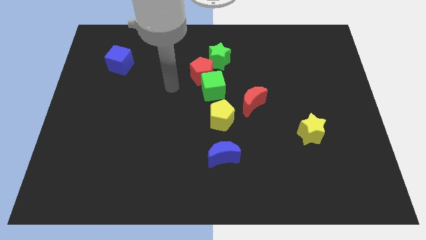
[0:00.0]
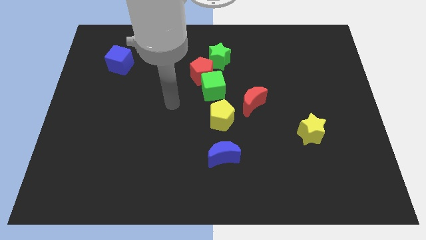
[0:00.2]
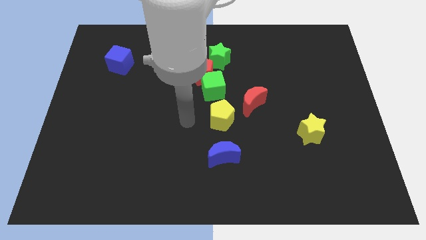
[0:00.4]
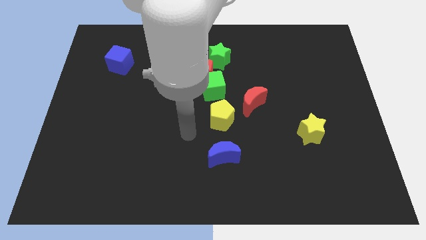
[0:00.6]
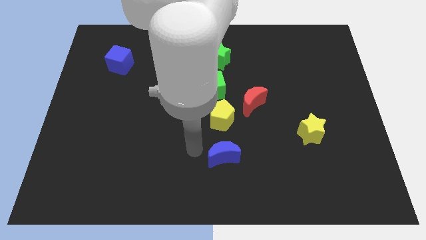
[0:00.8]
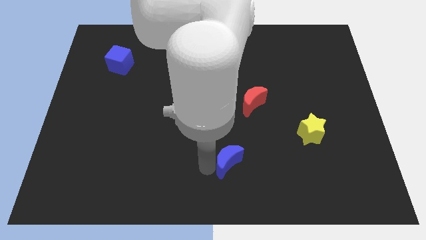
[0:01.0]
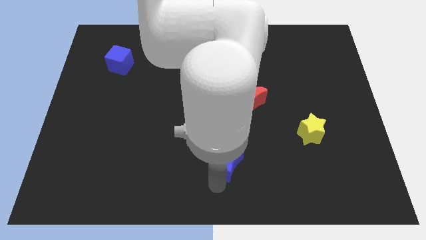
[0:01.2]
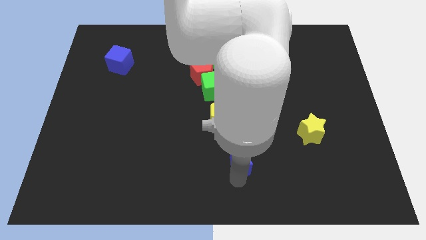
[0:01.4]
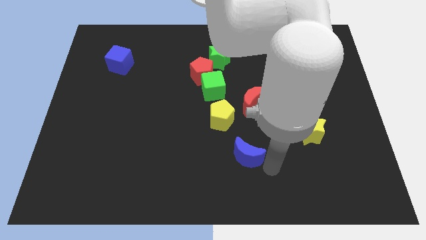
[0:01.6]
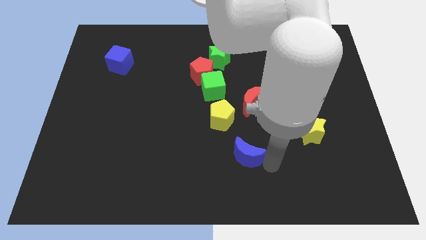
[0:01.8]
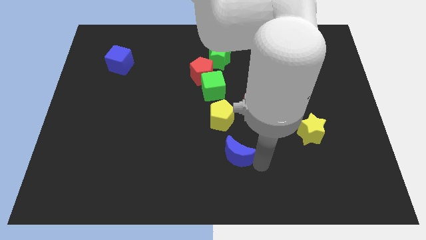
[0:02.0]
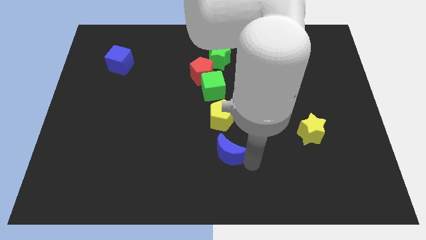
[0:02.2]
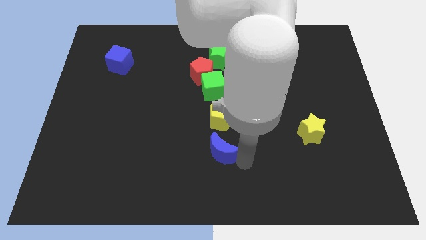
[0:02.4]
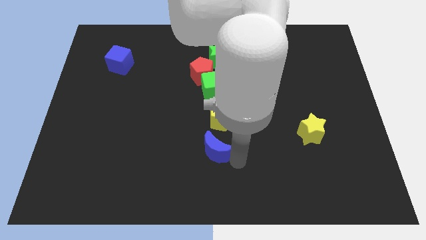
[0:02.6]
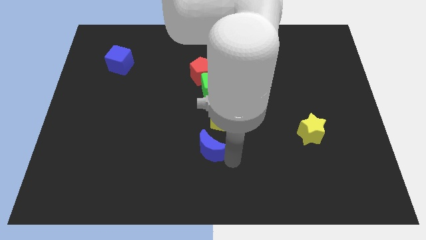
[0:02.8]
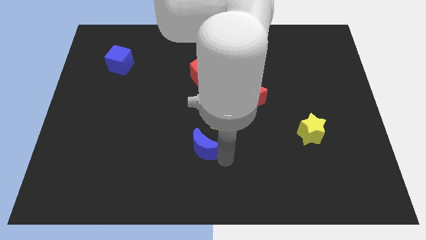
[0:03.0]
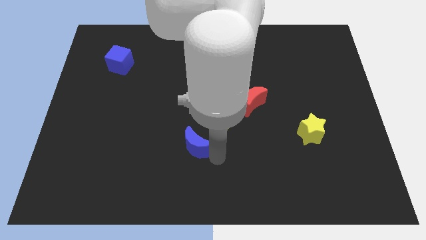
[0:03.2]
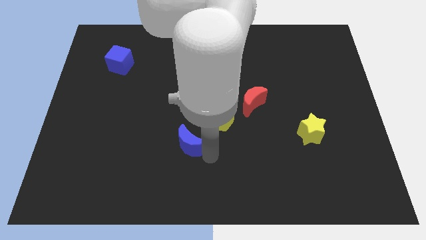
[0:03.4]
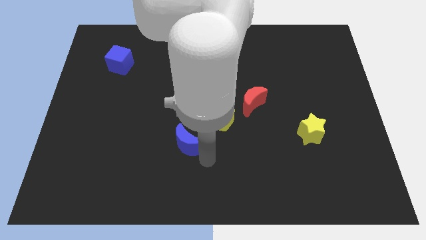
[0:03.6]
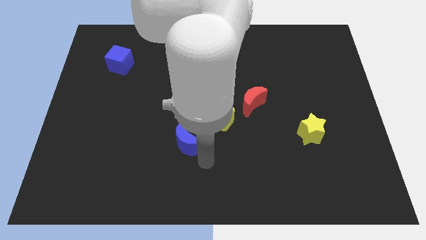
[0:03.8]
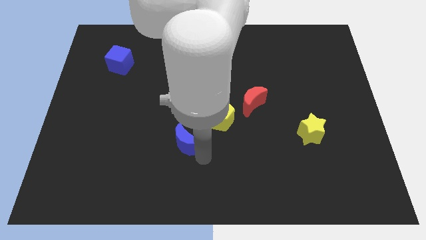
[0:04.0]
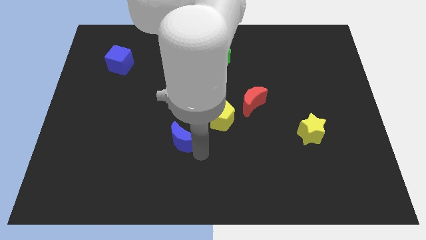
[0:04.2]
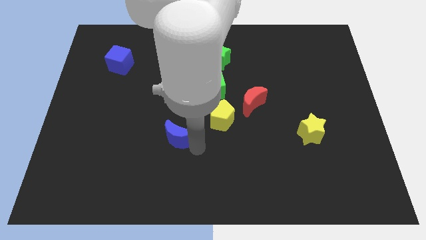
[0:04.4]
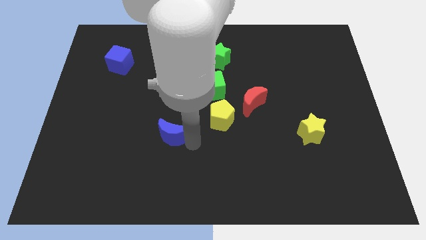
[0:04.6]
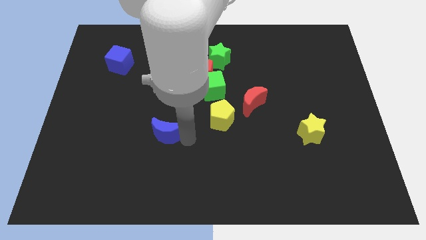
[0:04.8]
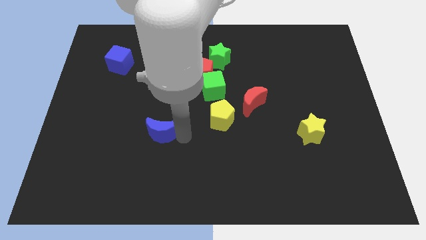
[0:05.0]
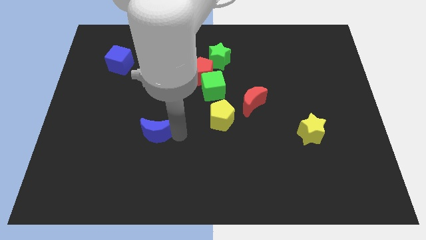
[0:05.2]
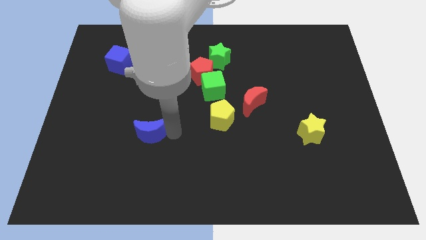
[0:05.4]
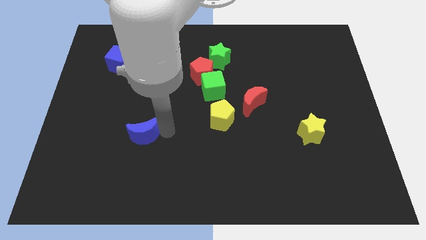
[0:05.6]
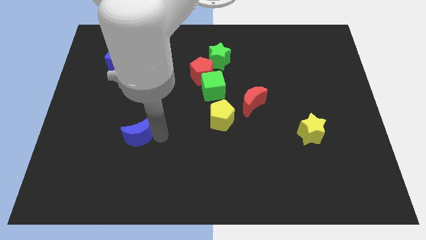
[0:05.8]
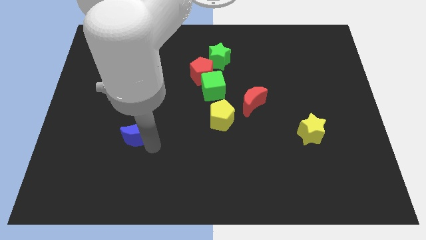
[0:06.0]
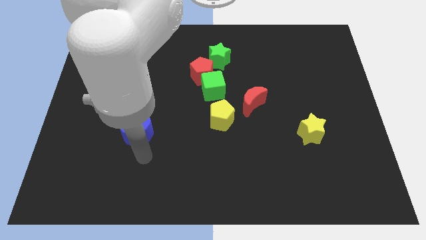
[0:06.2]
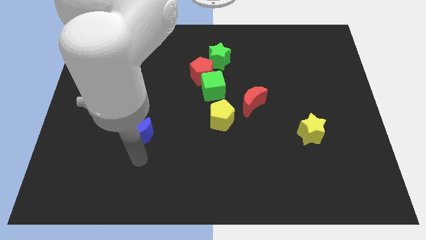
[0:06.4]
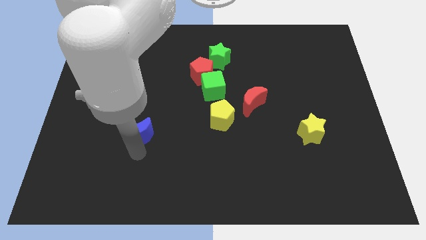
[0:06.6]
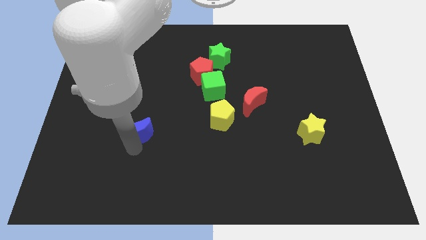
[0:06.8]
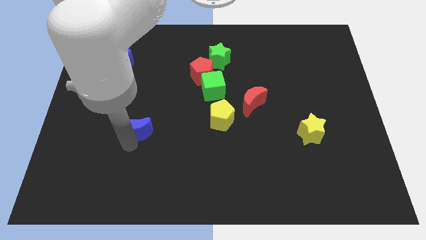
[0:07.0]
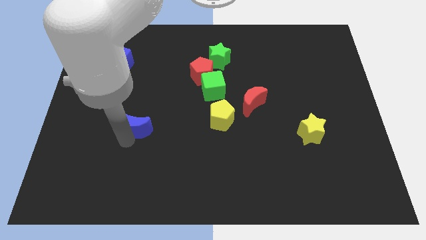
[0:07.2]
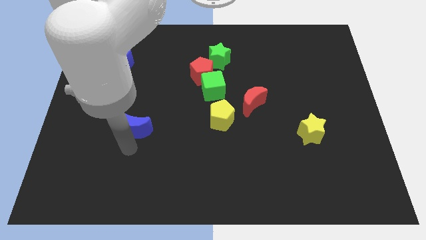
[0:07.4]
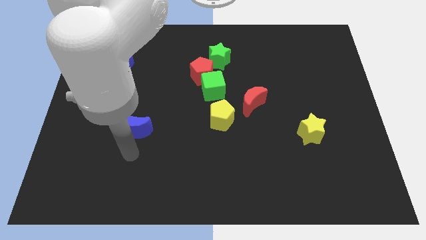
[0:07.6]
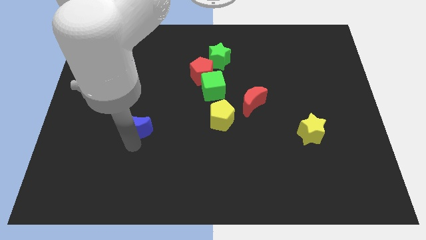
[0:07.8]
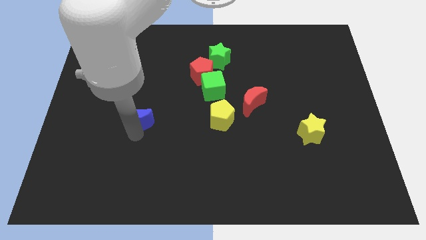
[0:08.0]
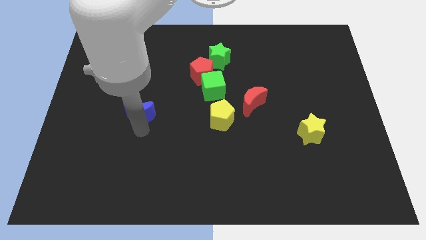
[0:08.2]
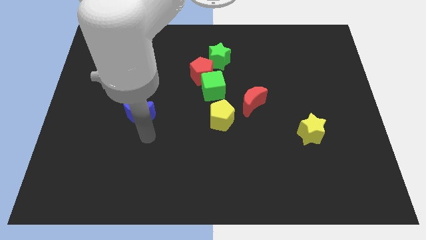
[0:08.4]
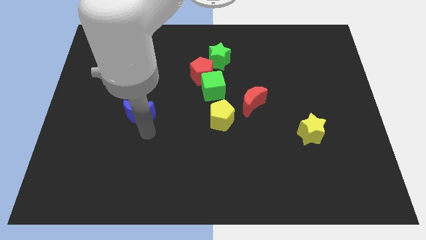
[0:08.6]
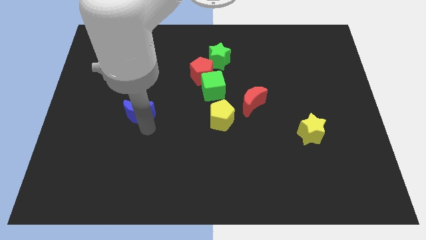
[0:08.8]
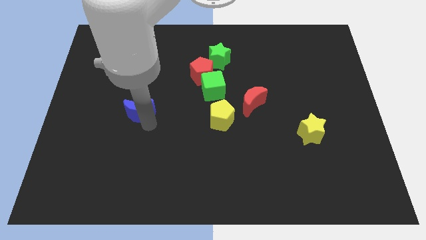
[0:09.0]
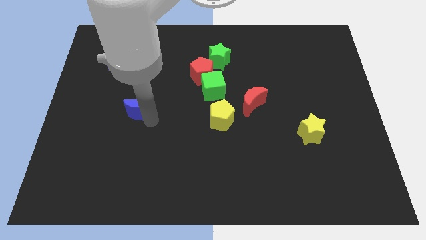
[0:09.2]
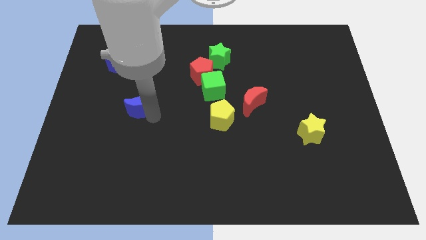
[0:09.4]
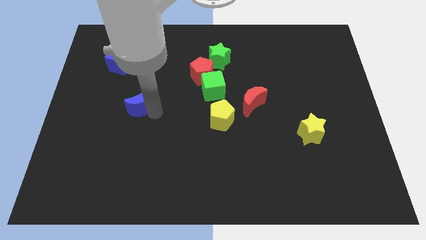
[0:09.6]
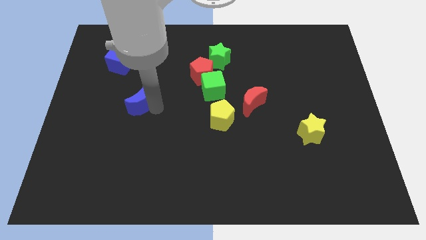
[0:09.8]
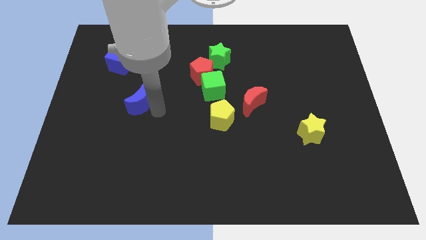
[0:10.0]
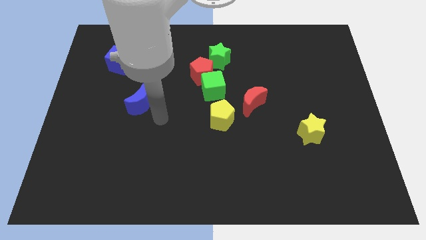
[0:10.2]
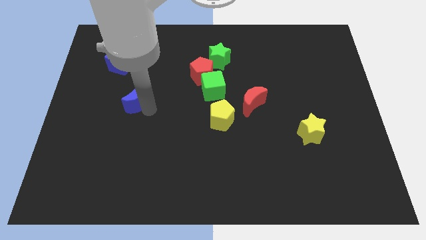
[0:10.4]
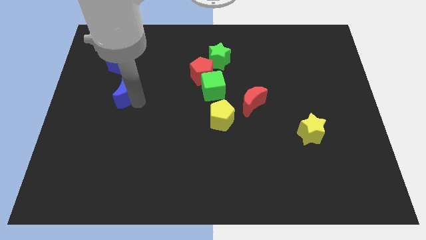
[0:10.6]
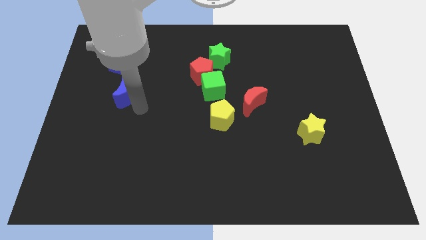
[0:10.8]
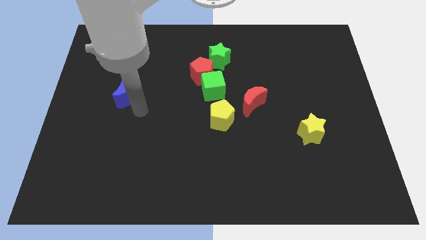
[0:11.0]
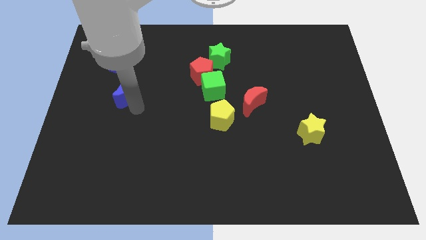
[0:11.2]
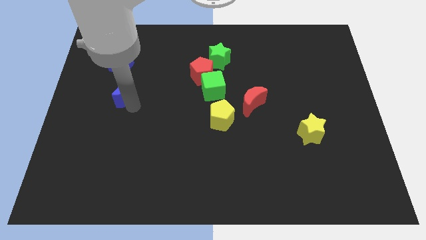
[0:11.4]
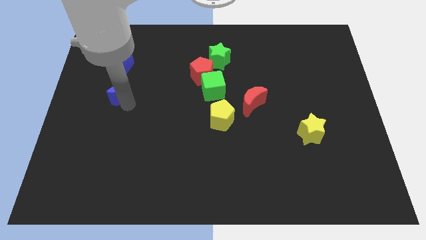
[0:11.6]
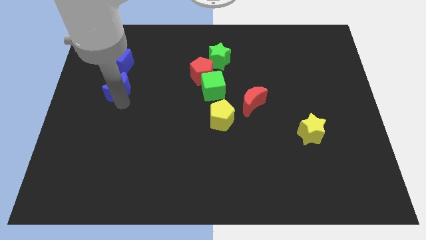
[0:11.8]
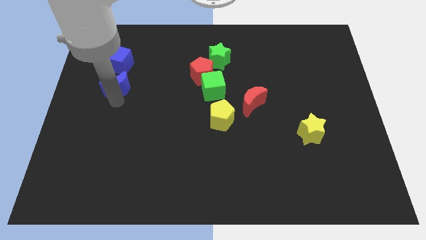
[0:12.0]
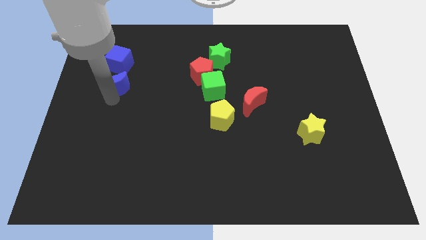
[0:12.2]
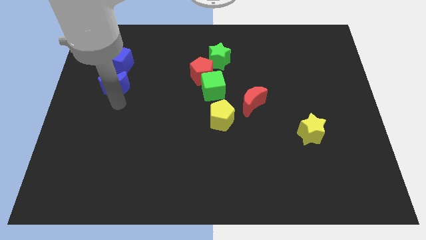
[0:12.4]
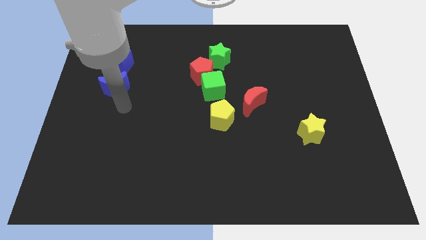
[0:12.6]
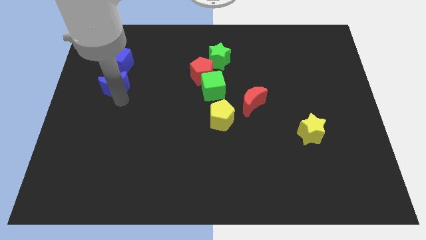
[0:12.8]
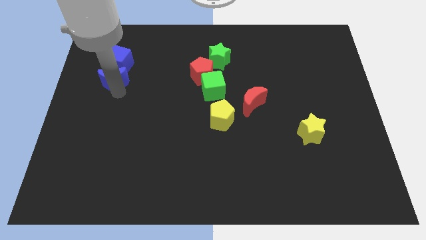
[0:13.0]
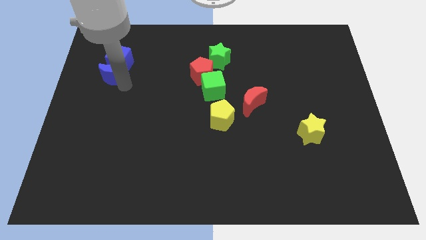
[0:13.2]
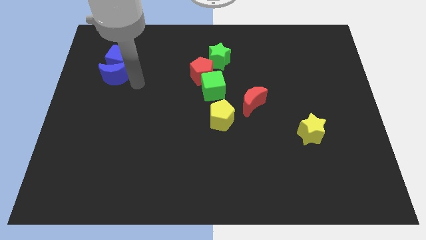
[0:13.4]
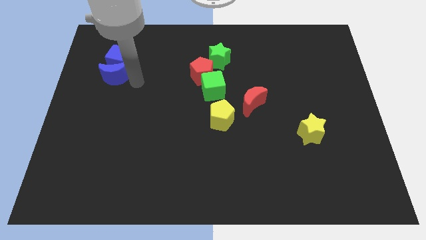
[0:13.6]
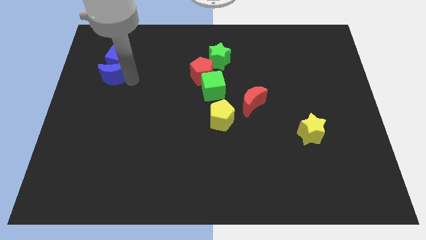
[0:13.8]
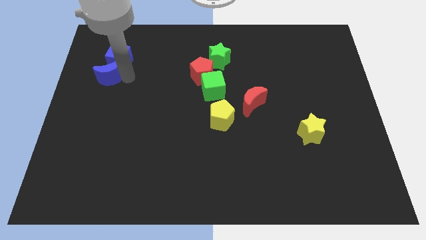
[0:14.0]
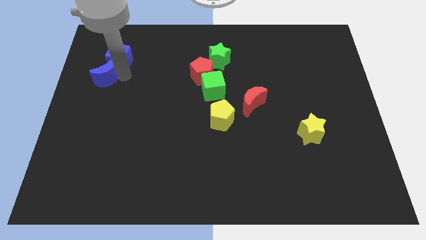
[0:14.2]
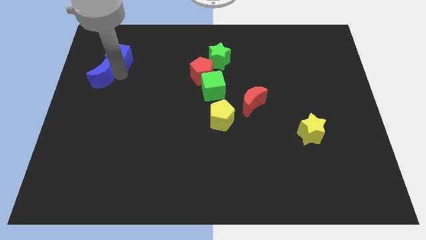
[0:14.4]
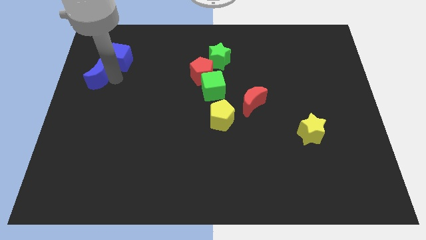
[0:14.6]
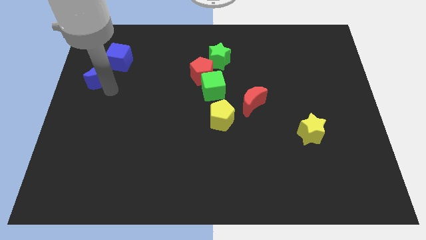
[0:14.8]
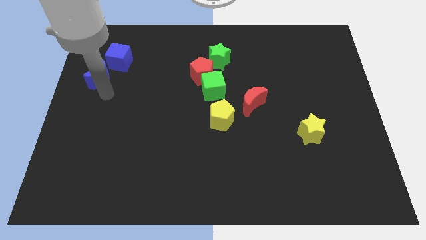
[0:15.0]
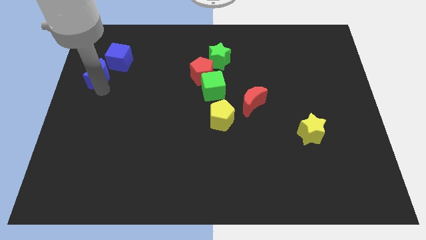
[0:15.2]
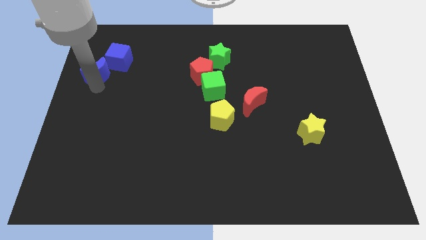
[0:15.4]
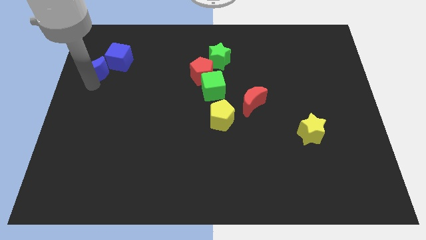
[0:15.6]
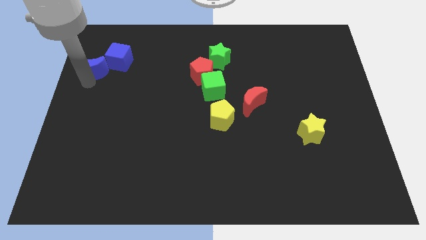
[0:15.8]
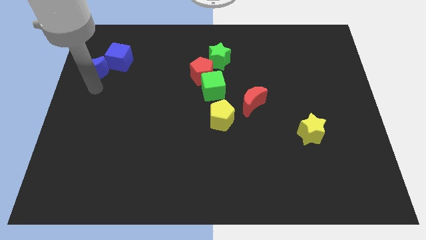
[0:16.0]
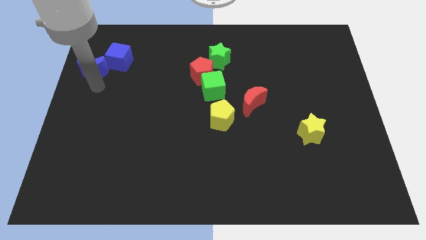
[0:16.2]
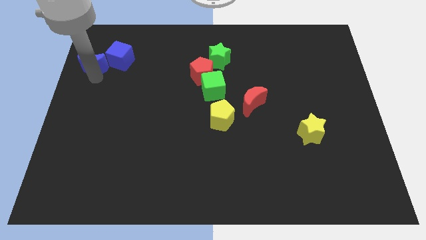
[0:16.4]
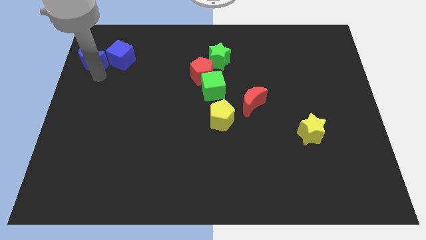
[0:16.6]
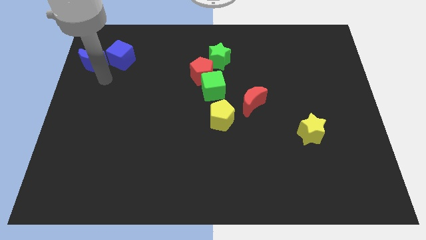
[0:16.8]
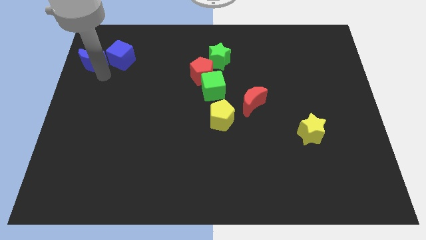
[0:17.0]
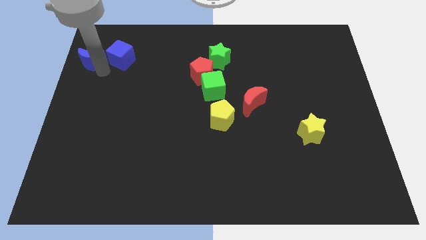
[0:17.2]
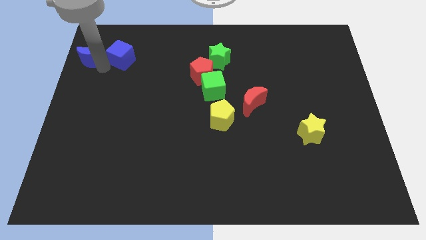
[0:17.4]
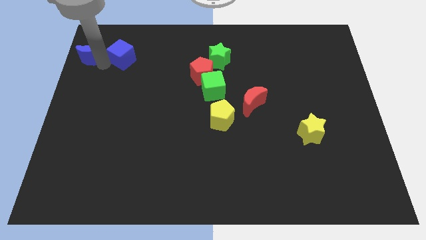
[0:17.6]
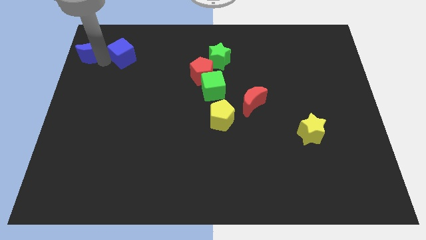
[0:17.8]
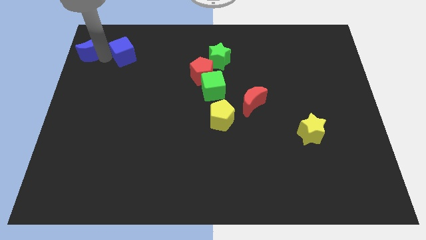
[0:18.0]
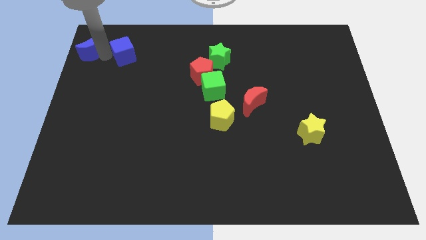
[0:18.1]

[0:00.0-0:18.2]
move the blue moon to the top left
